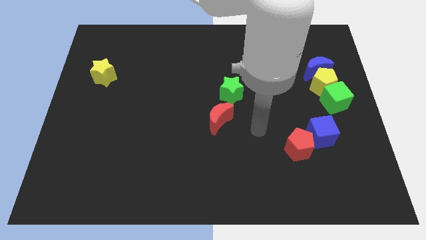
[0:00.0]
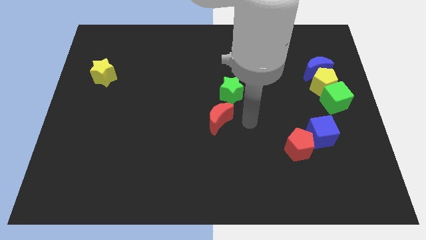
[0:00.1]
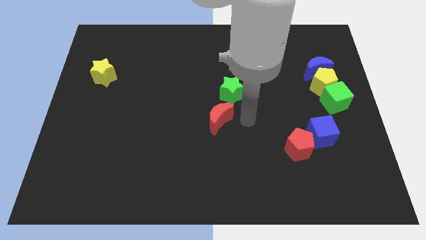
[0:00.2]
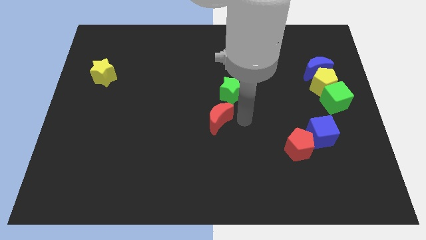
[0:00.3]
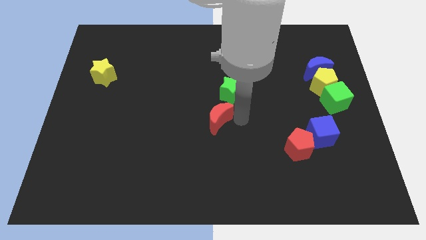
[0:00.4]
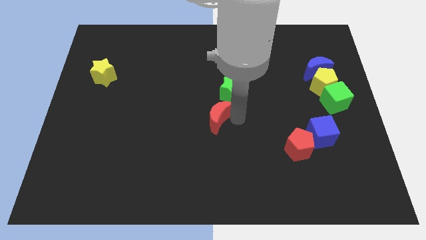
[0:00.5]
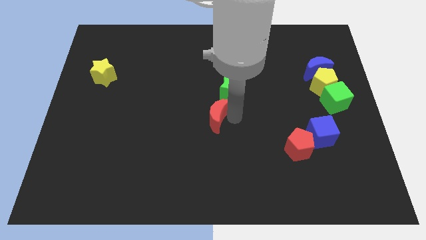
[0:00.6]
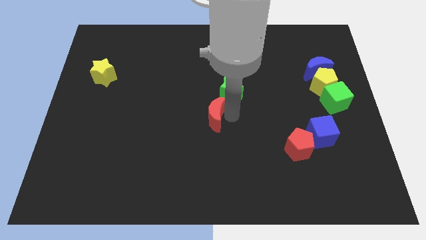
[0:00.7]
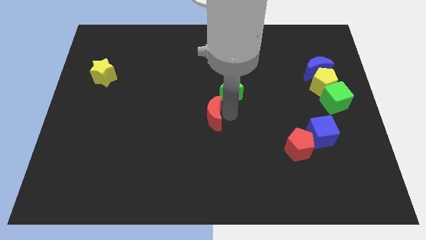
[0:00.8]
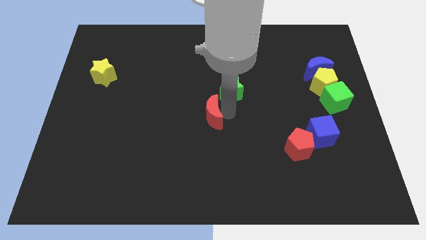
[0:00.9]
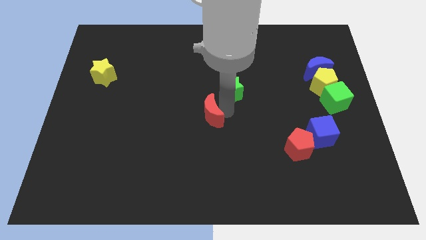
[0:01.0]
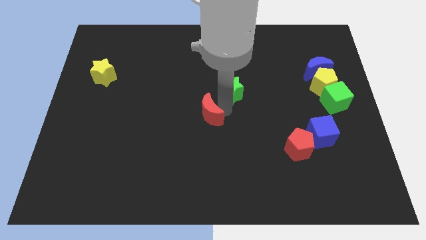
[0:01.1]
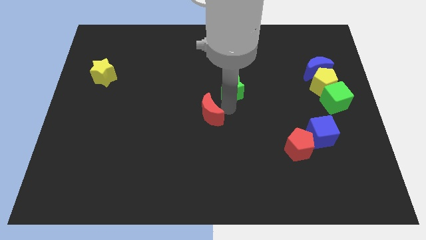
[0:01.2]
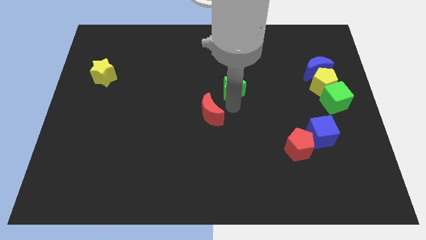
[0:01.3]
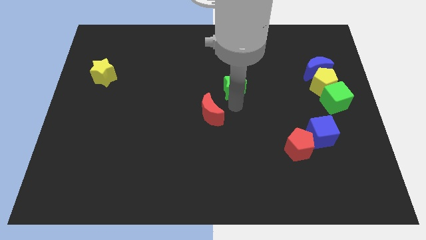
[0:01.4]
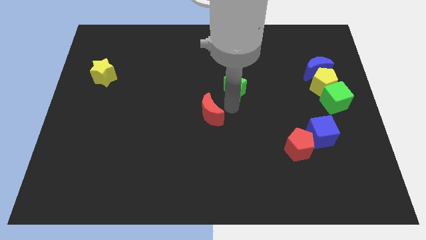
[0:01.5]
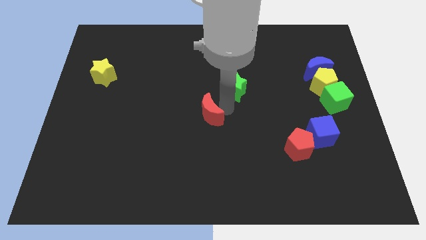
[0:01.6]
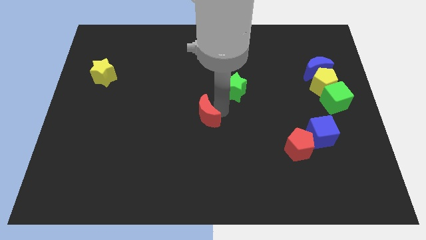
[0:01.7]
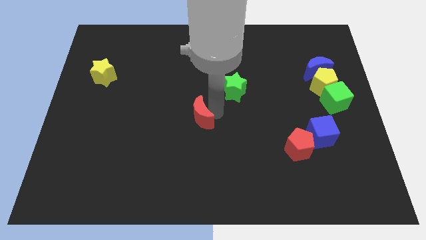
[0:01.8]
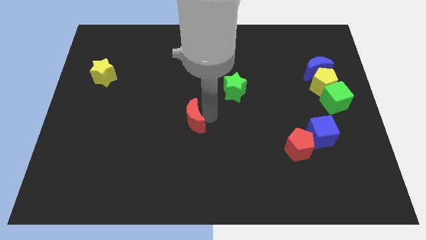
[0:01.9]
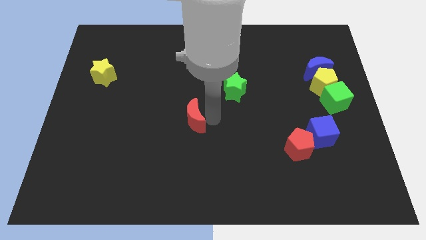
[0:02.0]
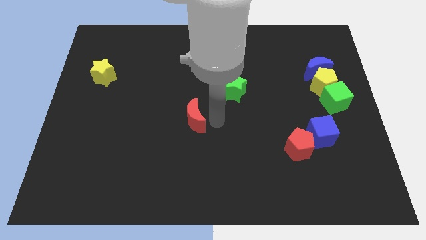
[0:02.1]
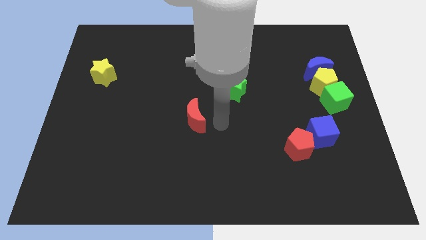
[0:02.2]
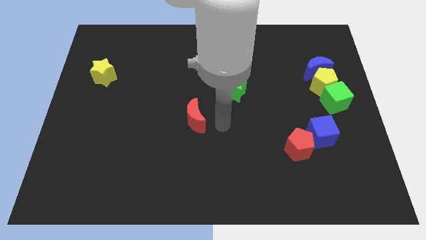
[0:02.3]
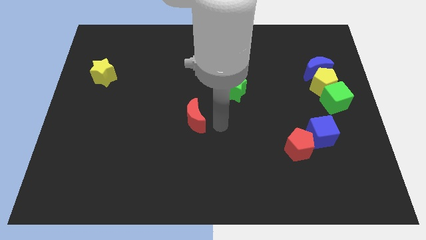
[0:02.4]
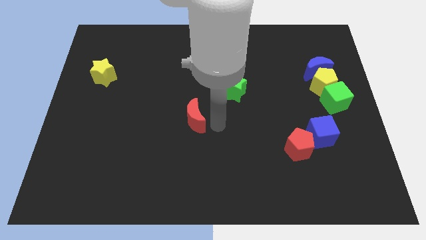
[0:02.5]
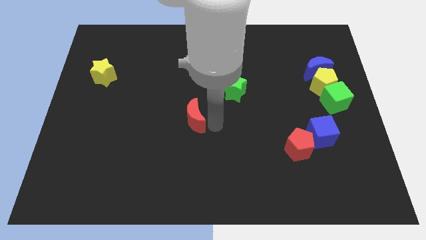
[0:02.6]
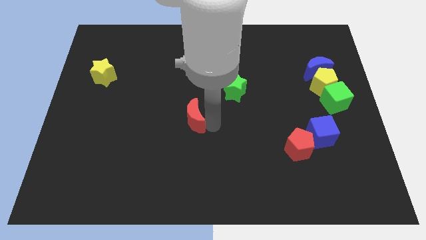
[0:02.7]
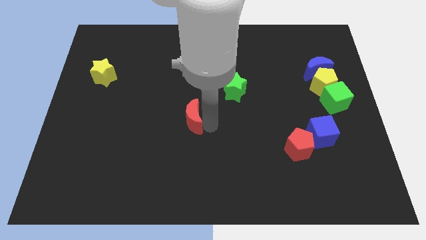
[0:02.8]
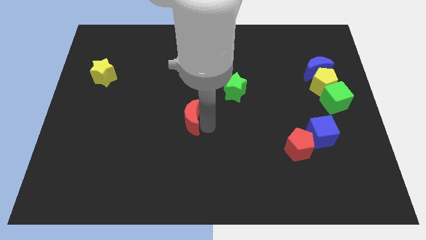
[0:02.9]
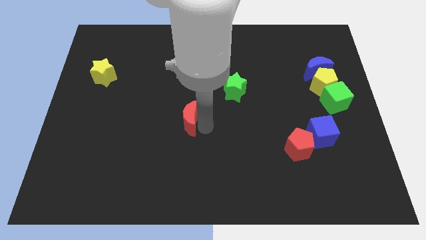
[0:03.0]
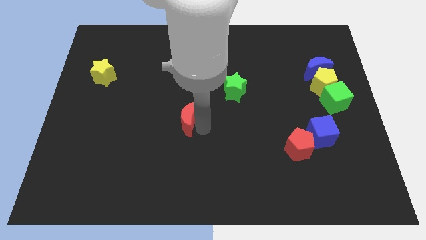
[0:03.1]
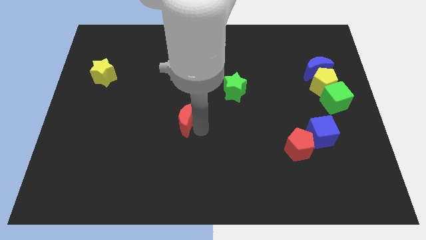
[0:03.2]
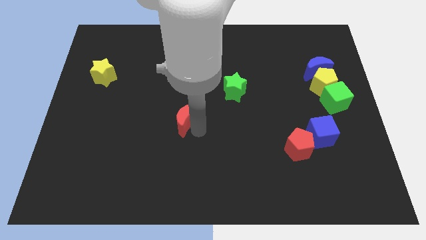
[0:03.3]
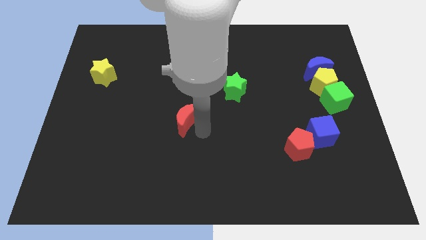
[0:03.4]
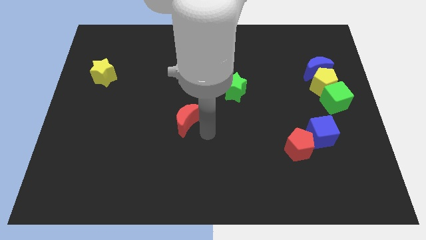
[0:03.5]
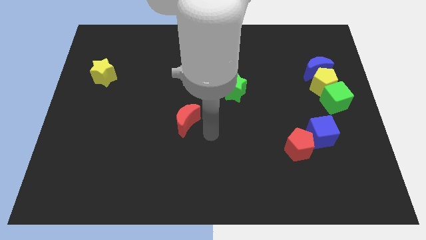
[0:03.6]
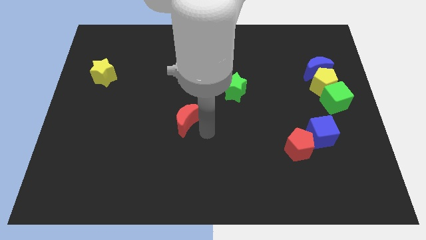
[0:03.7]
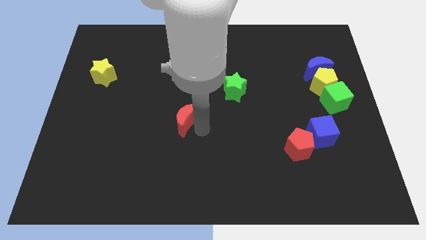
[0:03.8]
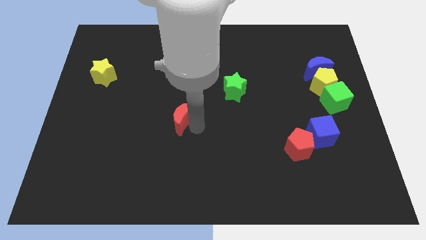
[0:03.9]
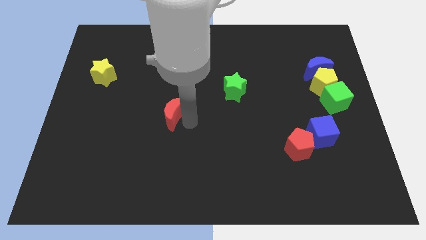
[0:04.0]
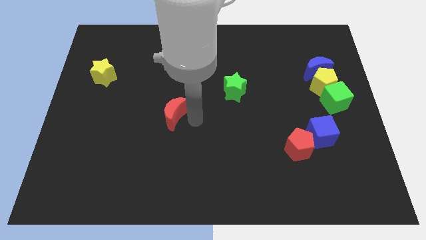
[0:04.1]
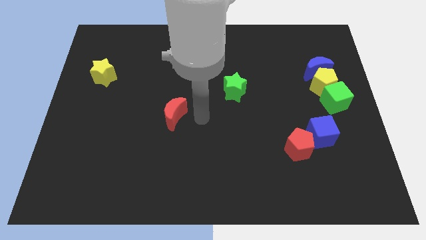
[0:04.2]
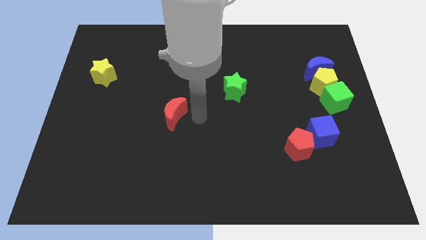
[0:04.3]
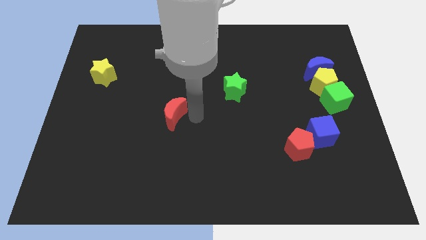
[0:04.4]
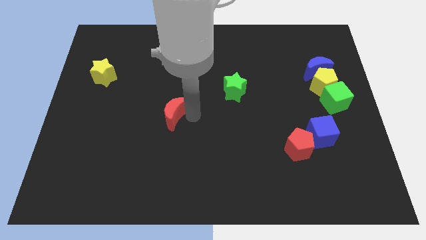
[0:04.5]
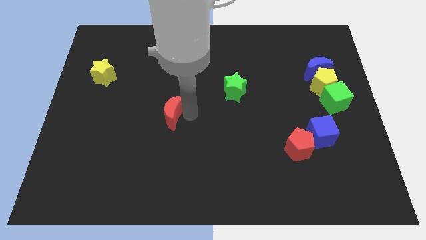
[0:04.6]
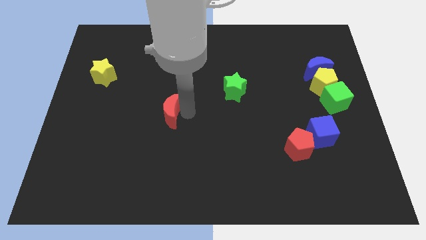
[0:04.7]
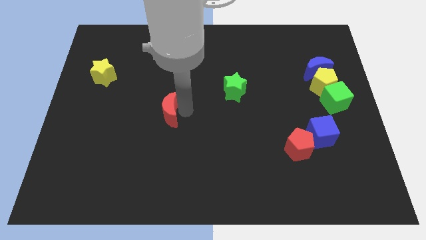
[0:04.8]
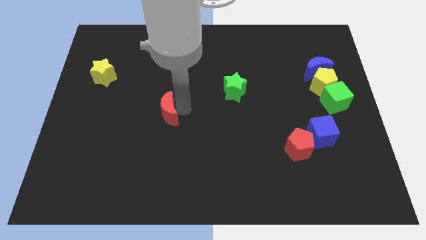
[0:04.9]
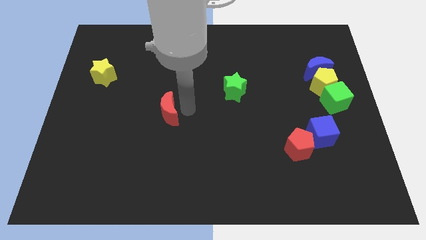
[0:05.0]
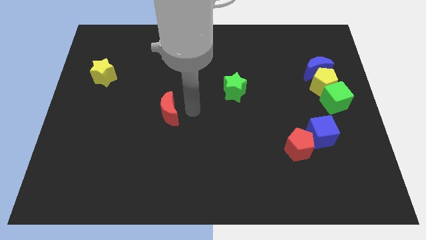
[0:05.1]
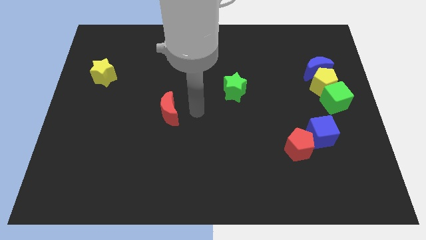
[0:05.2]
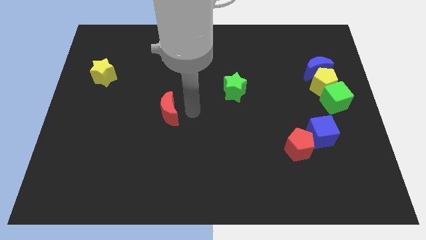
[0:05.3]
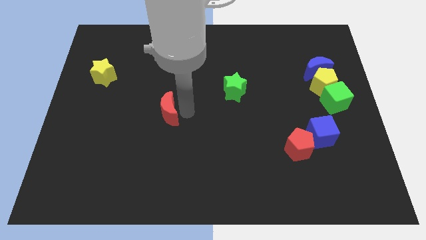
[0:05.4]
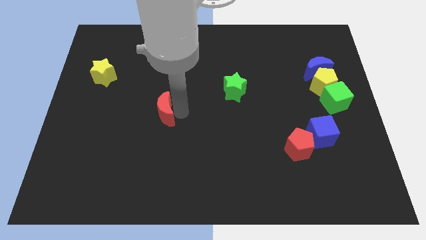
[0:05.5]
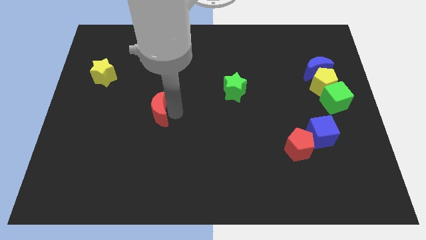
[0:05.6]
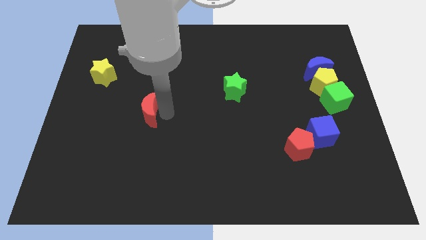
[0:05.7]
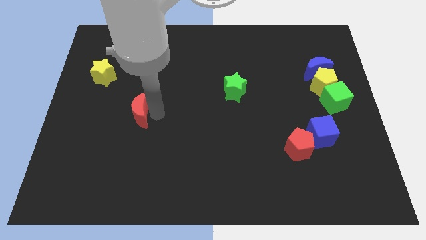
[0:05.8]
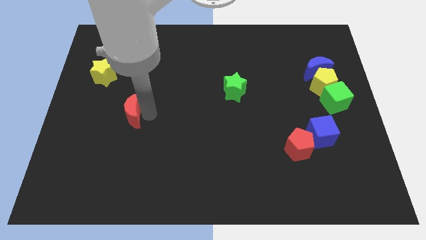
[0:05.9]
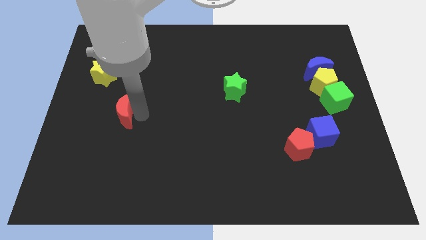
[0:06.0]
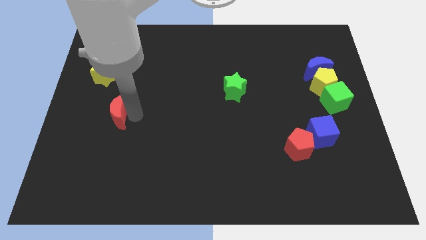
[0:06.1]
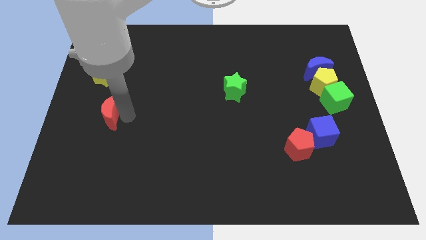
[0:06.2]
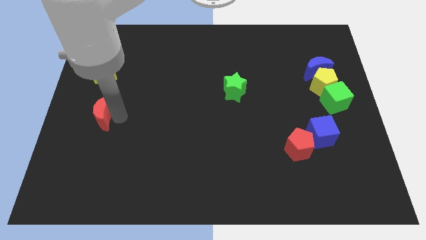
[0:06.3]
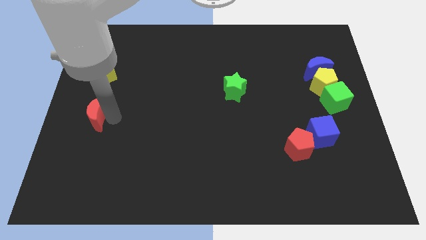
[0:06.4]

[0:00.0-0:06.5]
slide the red moon to the left side
